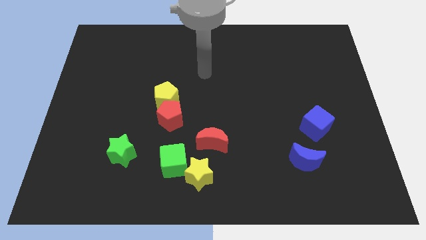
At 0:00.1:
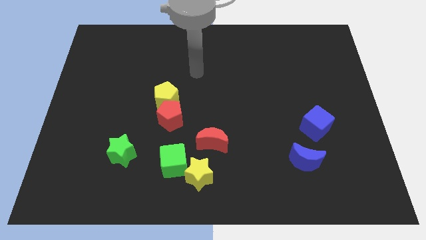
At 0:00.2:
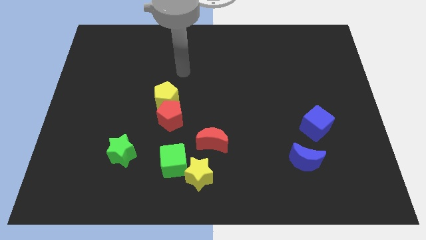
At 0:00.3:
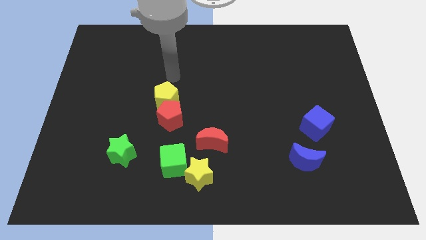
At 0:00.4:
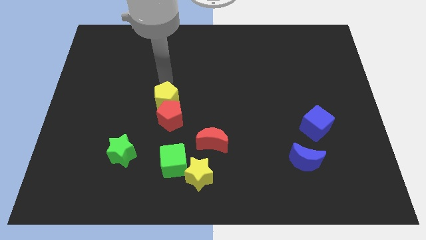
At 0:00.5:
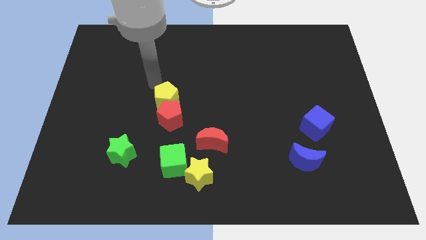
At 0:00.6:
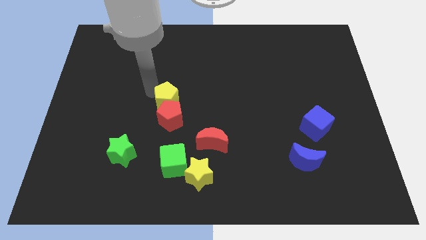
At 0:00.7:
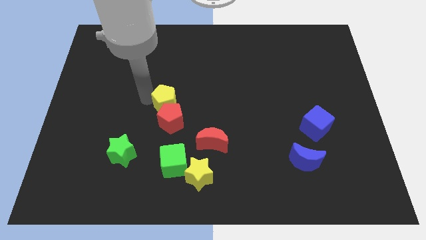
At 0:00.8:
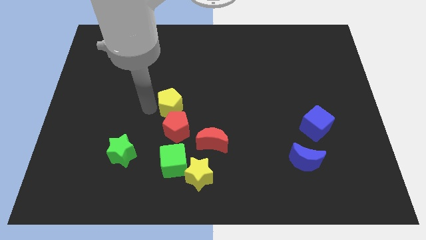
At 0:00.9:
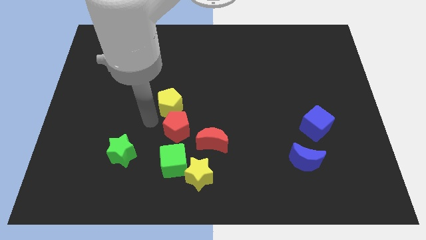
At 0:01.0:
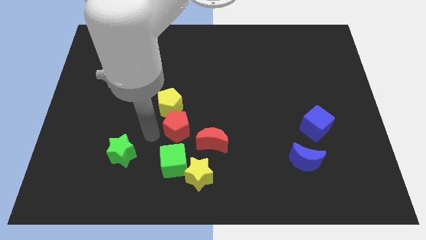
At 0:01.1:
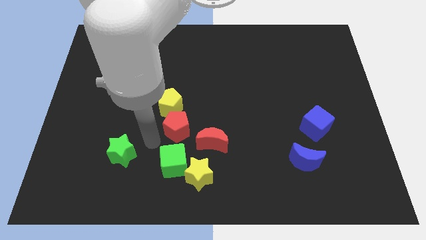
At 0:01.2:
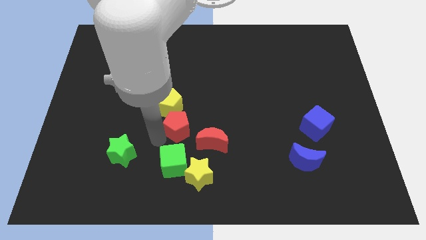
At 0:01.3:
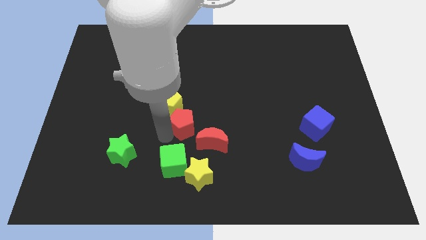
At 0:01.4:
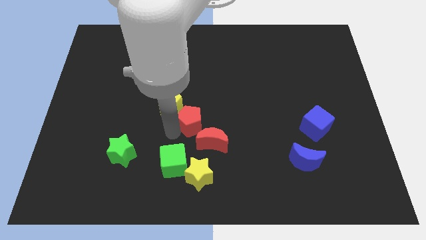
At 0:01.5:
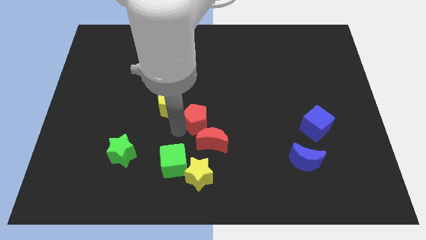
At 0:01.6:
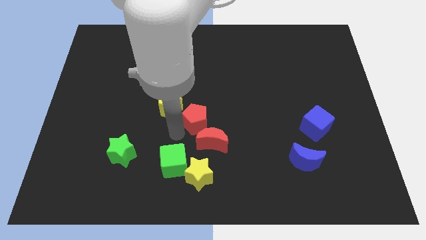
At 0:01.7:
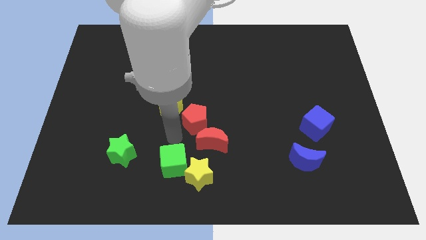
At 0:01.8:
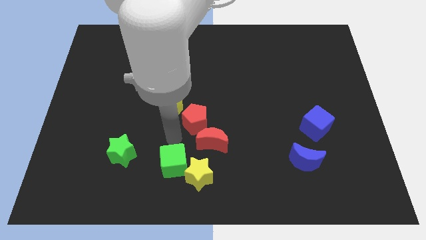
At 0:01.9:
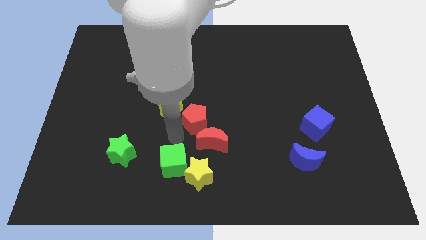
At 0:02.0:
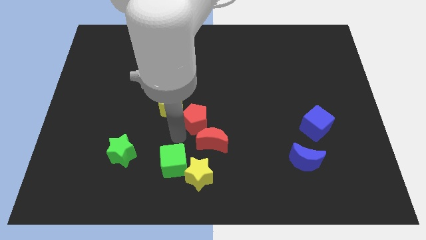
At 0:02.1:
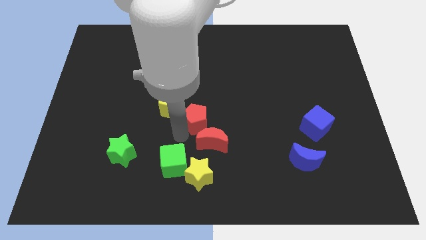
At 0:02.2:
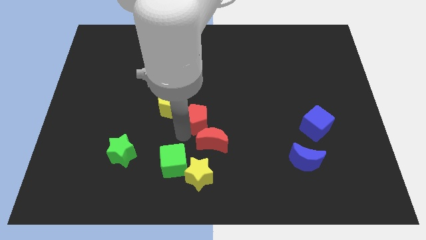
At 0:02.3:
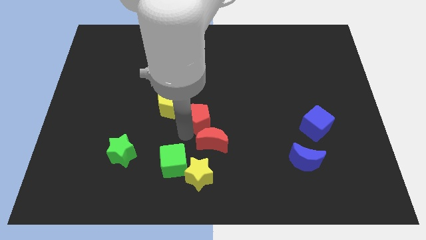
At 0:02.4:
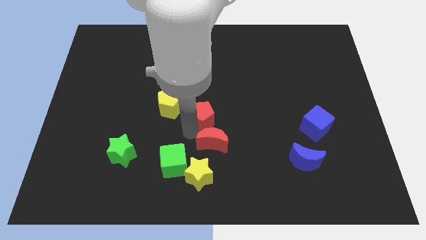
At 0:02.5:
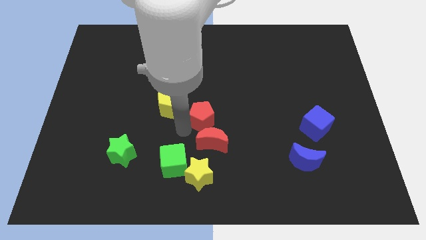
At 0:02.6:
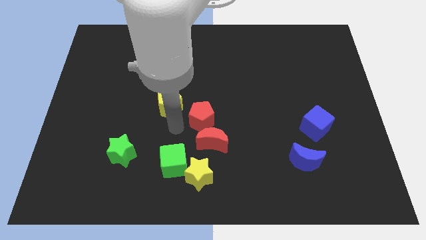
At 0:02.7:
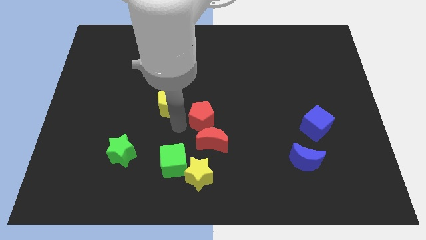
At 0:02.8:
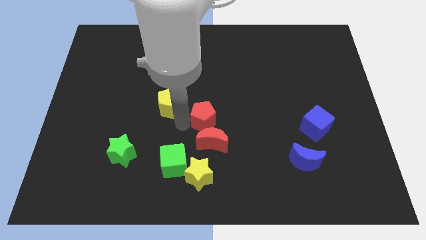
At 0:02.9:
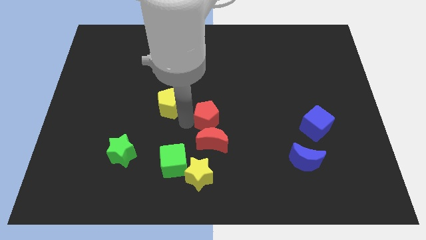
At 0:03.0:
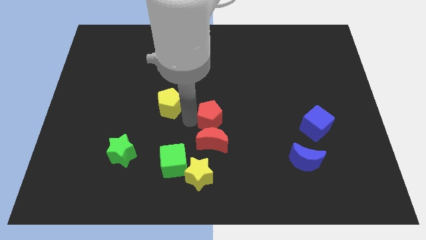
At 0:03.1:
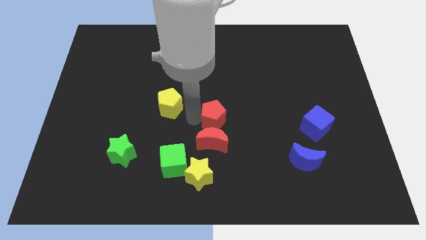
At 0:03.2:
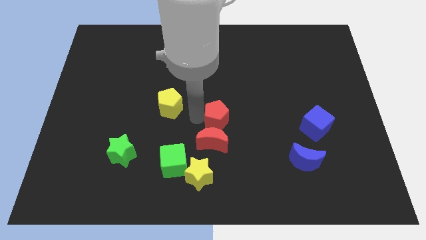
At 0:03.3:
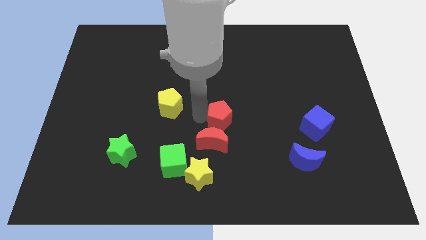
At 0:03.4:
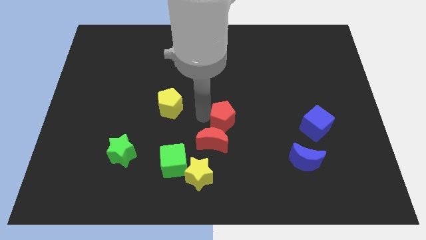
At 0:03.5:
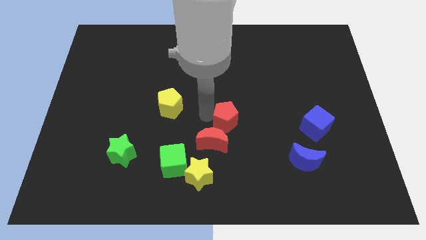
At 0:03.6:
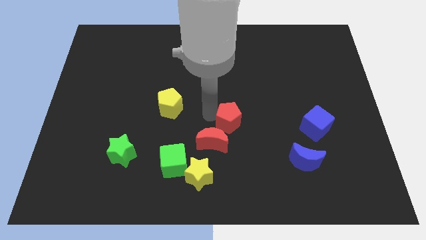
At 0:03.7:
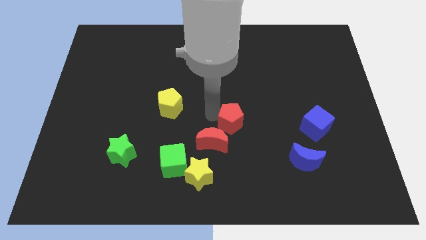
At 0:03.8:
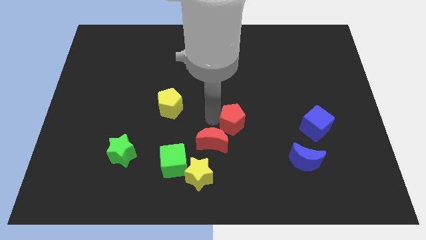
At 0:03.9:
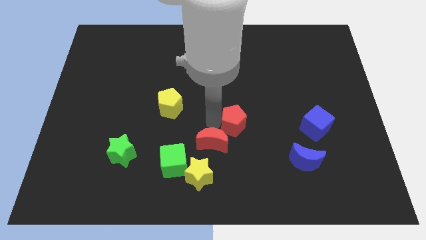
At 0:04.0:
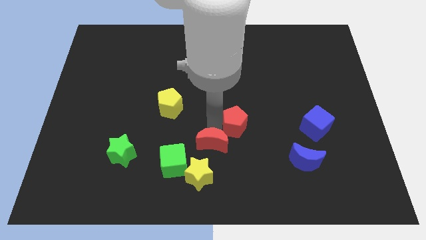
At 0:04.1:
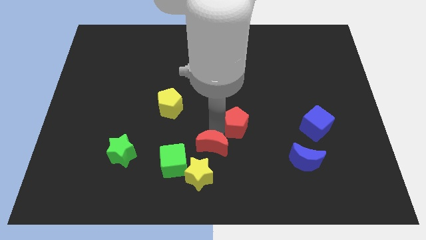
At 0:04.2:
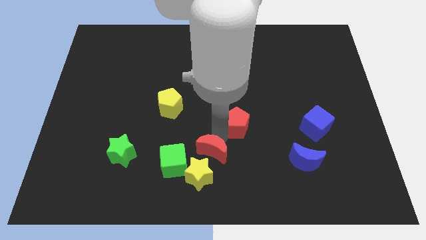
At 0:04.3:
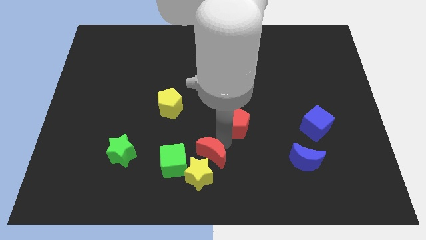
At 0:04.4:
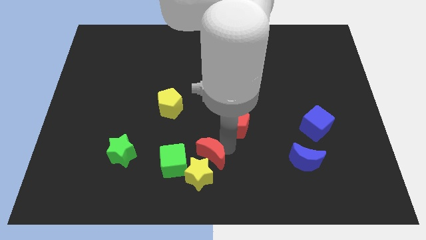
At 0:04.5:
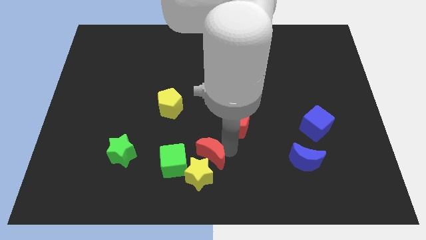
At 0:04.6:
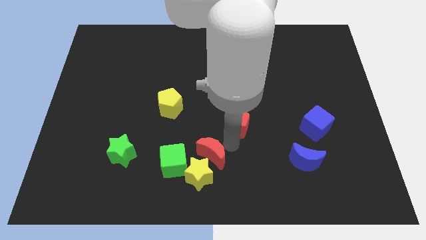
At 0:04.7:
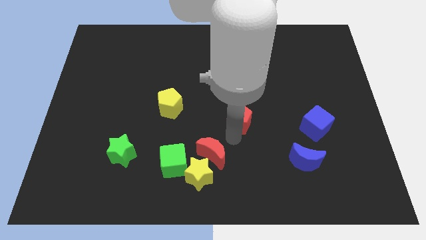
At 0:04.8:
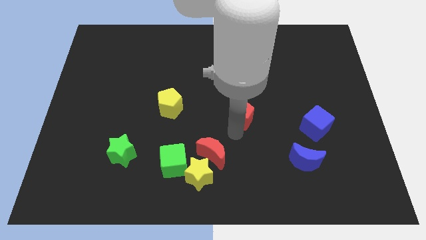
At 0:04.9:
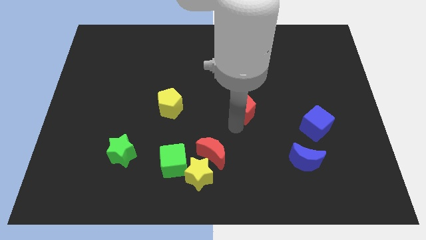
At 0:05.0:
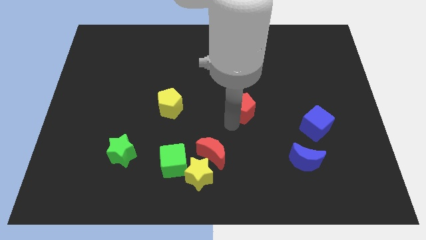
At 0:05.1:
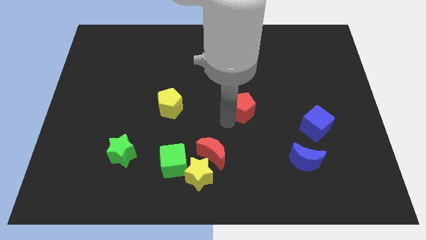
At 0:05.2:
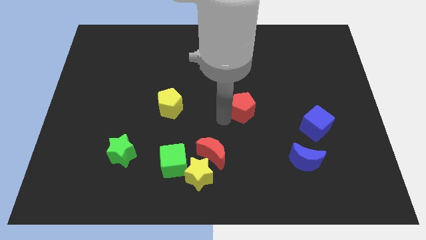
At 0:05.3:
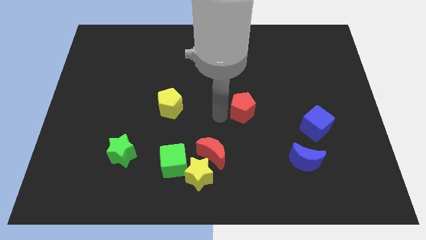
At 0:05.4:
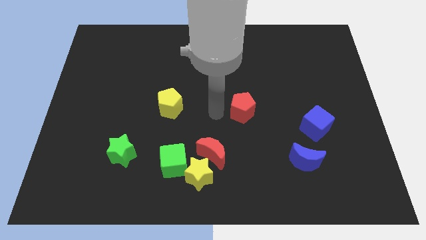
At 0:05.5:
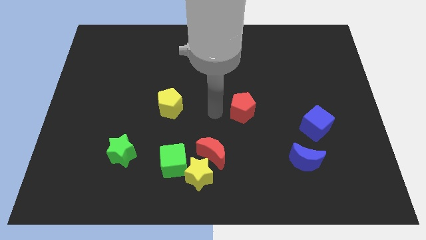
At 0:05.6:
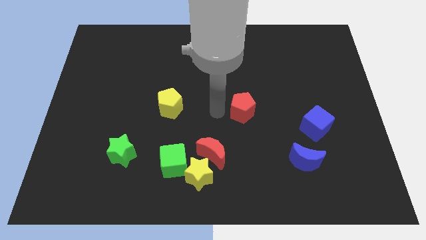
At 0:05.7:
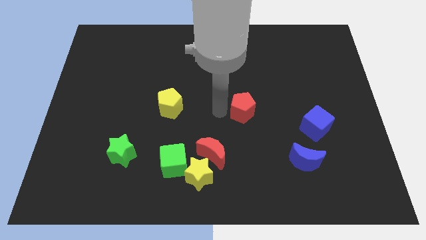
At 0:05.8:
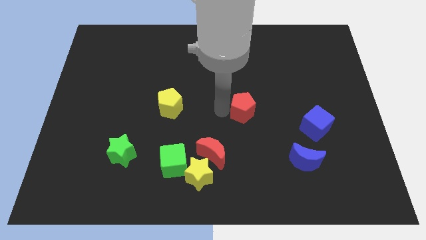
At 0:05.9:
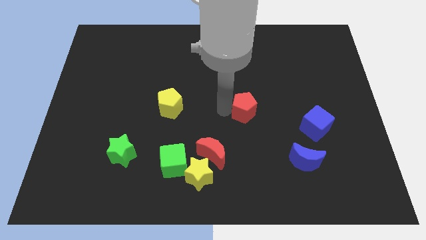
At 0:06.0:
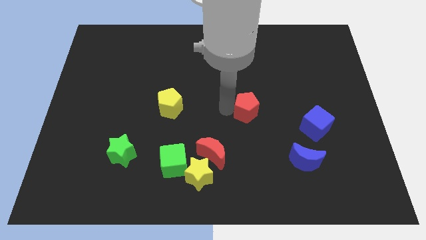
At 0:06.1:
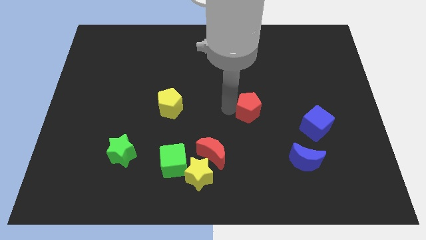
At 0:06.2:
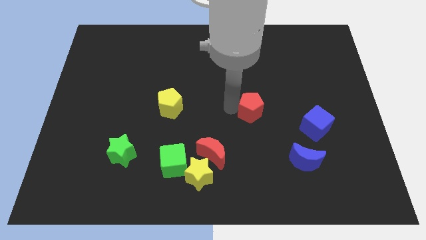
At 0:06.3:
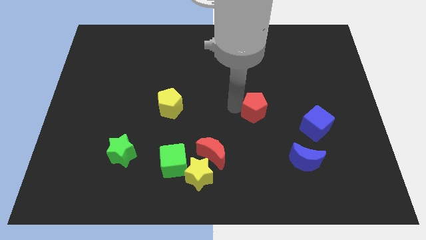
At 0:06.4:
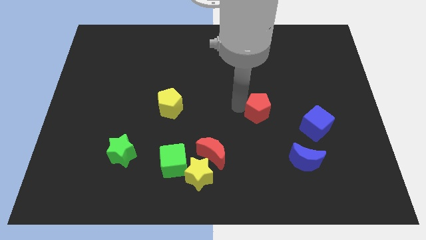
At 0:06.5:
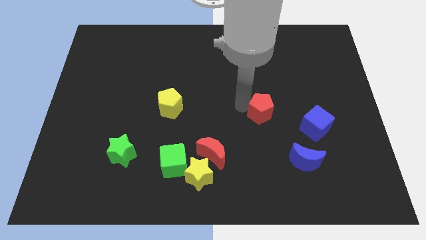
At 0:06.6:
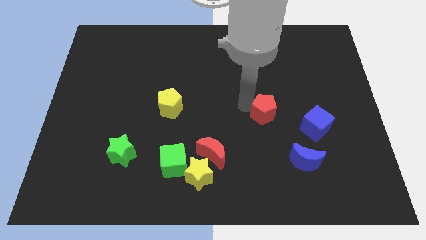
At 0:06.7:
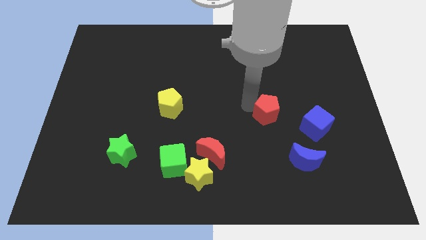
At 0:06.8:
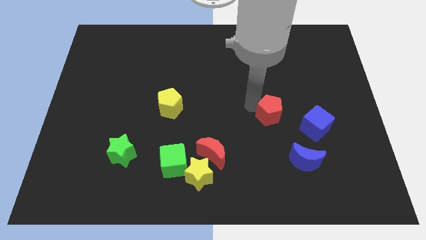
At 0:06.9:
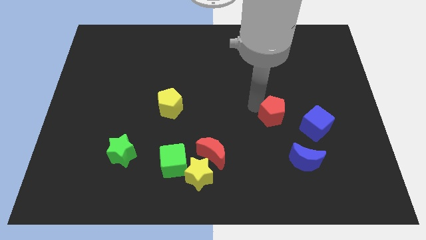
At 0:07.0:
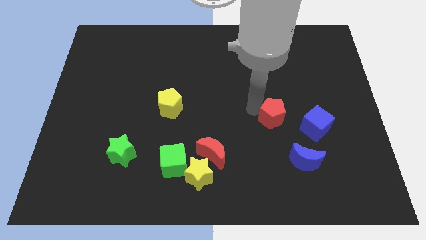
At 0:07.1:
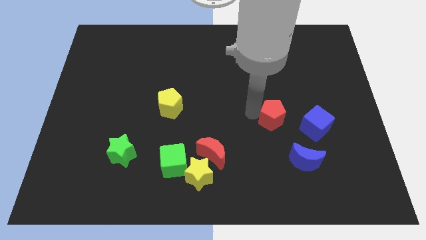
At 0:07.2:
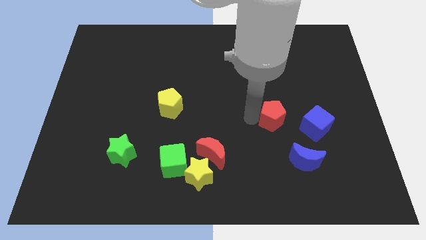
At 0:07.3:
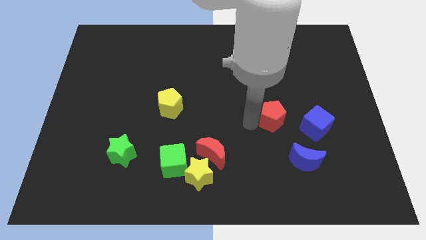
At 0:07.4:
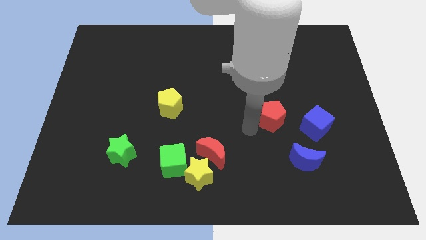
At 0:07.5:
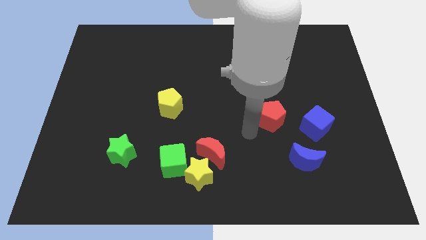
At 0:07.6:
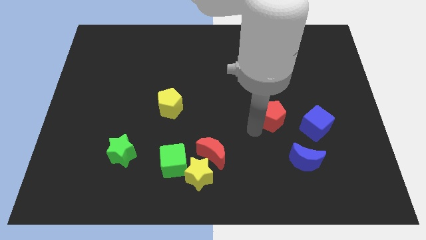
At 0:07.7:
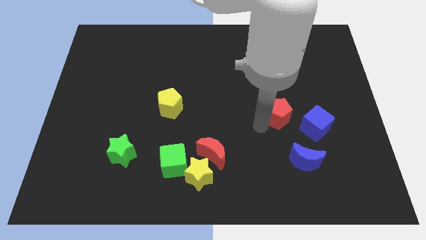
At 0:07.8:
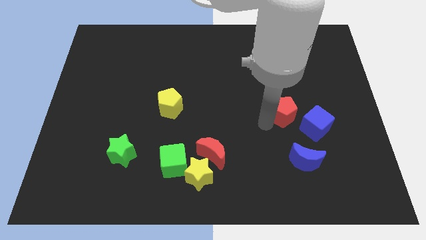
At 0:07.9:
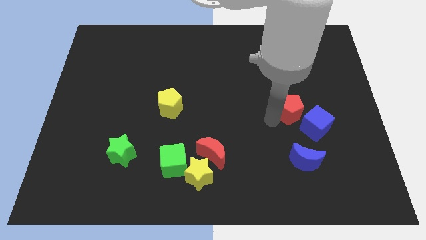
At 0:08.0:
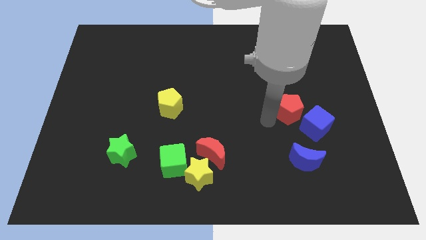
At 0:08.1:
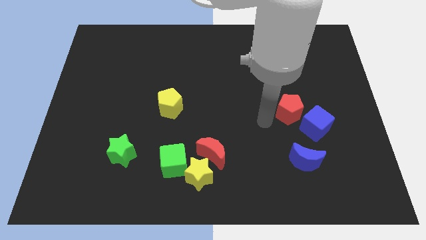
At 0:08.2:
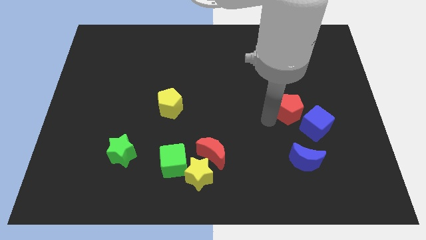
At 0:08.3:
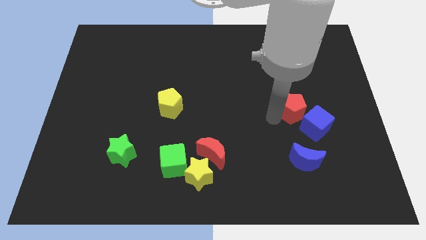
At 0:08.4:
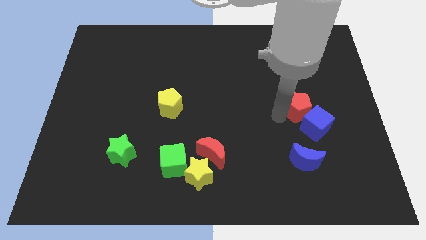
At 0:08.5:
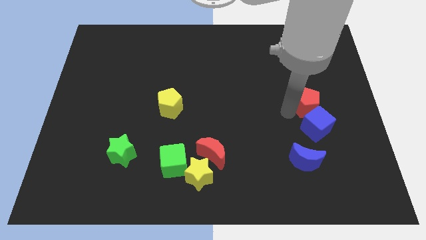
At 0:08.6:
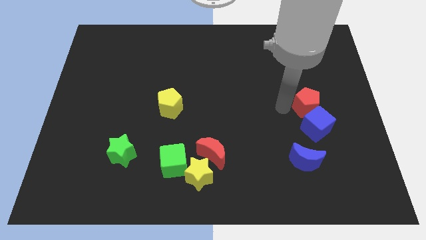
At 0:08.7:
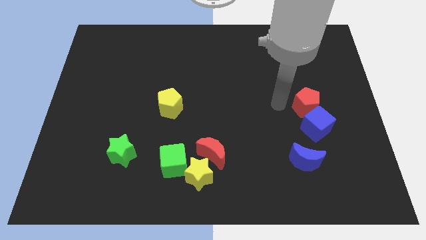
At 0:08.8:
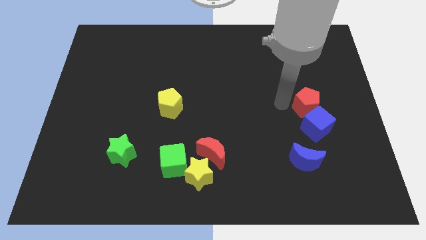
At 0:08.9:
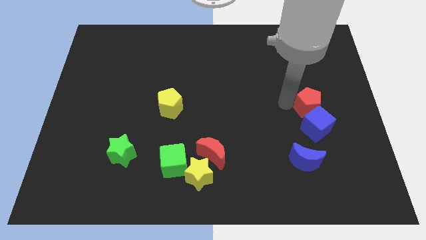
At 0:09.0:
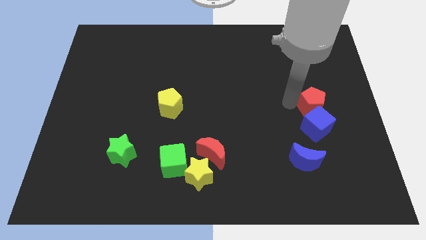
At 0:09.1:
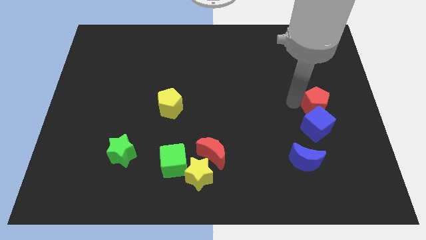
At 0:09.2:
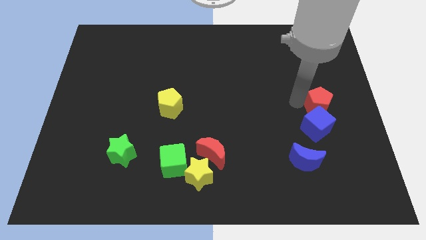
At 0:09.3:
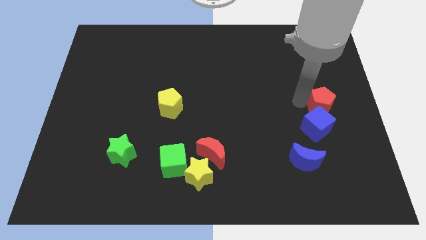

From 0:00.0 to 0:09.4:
move the red pentagon to the right side
